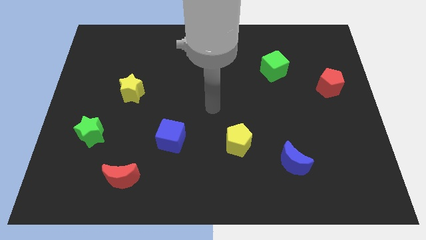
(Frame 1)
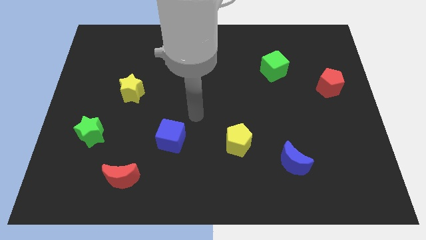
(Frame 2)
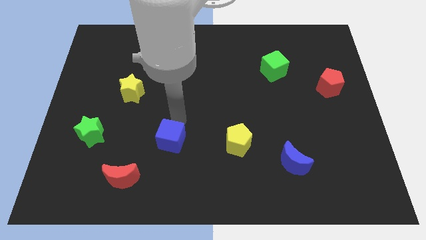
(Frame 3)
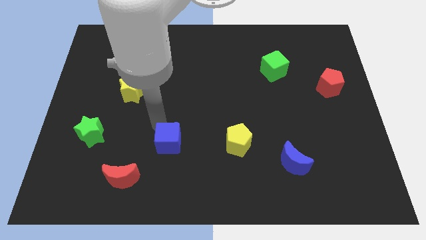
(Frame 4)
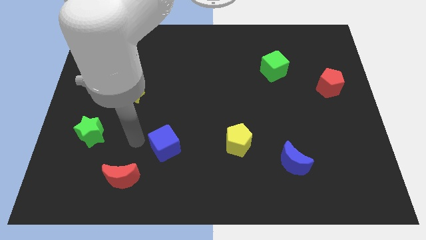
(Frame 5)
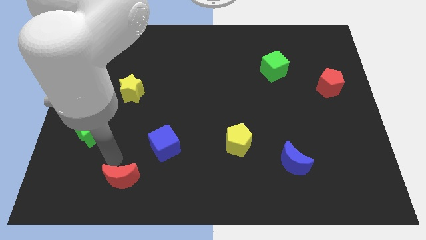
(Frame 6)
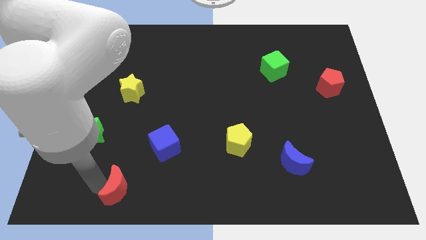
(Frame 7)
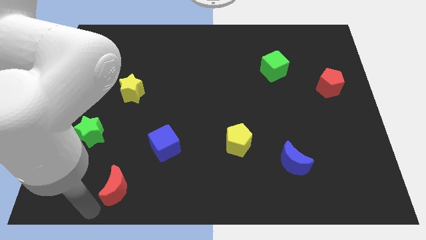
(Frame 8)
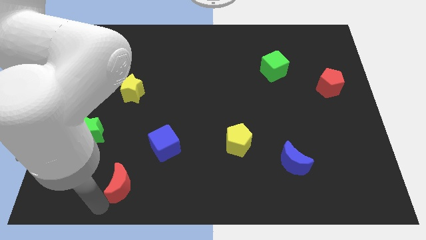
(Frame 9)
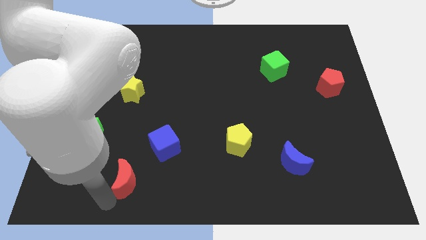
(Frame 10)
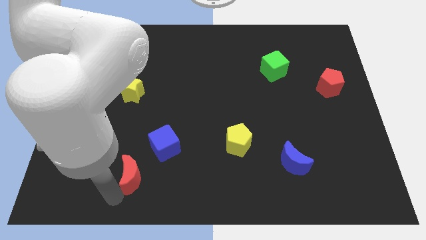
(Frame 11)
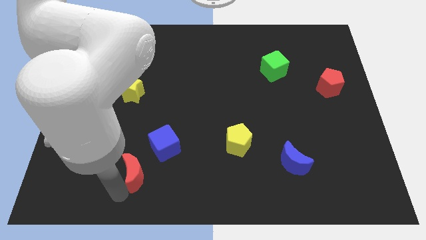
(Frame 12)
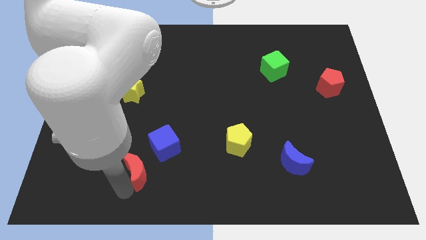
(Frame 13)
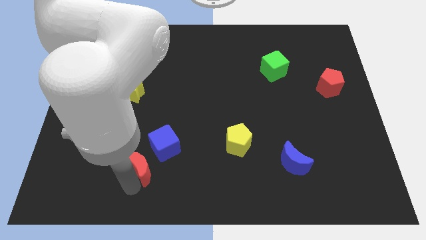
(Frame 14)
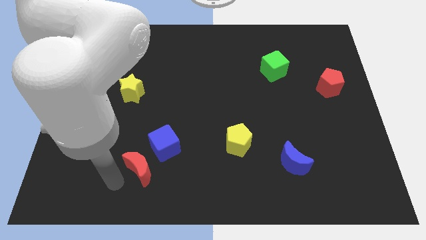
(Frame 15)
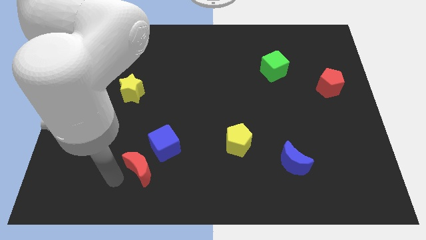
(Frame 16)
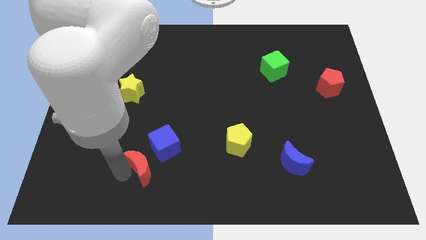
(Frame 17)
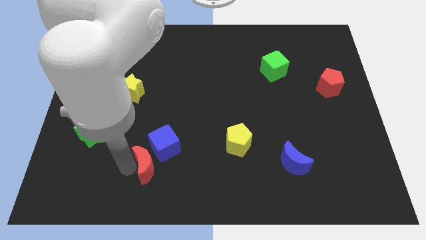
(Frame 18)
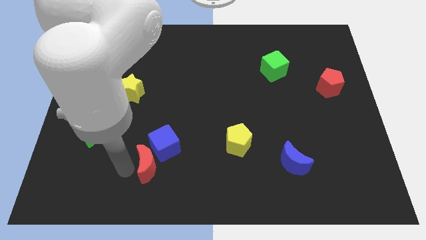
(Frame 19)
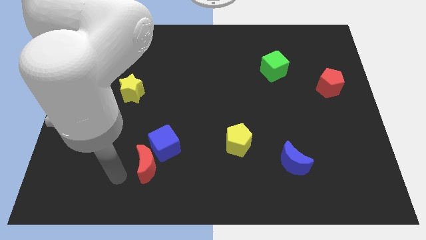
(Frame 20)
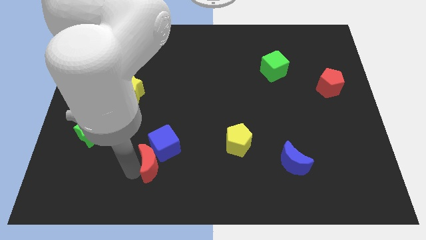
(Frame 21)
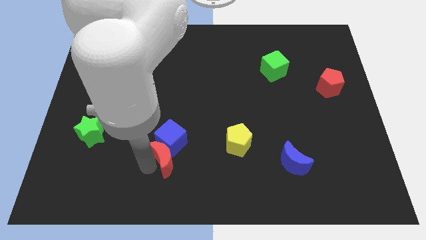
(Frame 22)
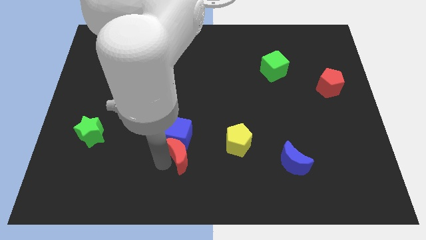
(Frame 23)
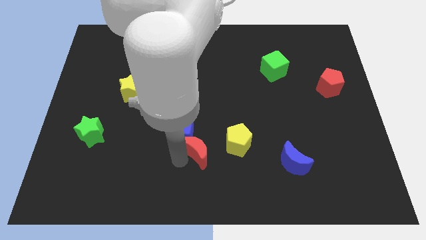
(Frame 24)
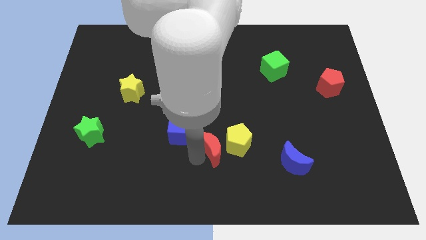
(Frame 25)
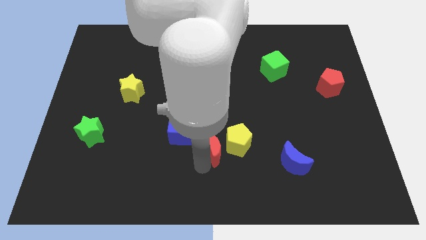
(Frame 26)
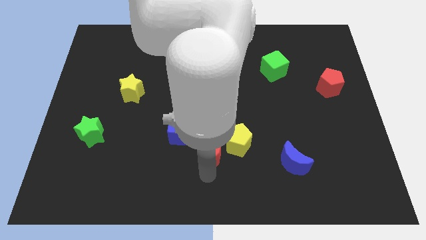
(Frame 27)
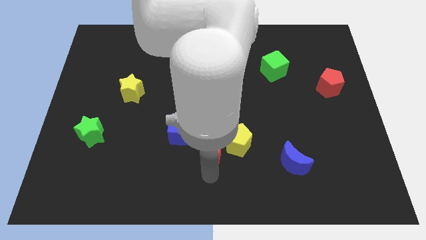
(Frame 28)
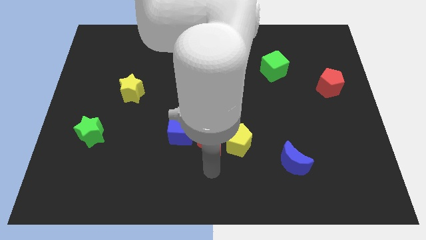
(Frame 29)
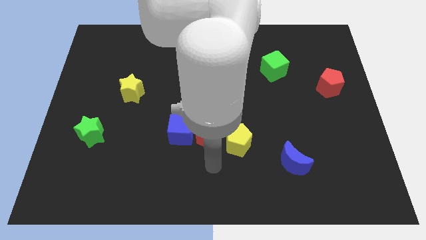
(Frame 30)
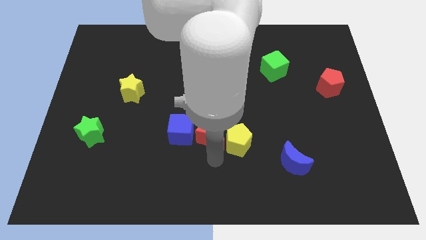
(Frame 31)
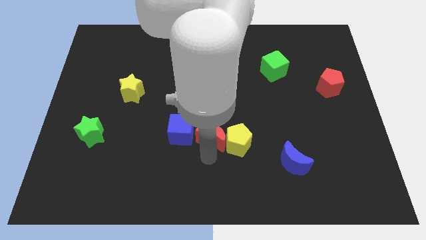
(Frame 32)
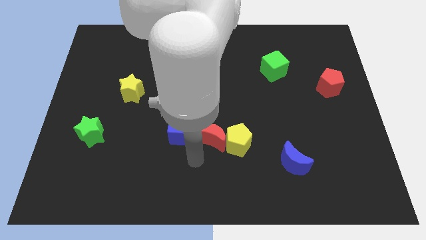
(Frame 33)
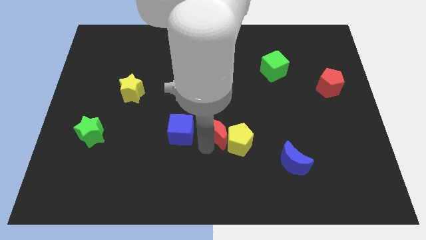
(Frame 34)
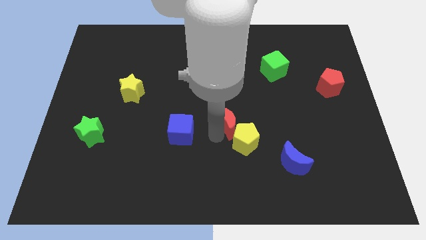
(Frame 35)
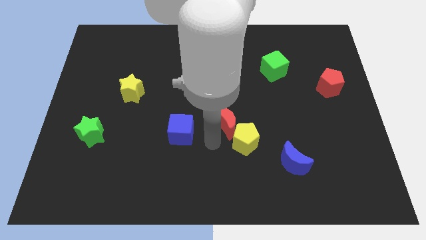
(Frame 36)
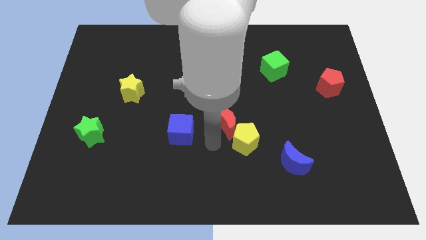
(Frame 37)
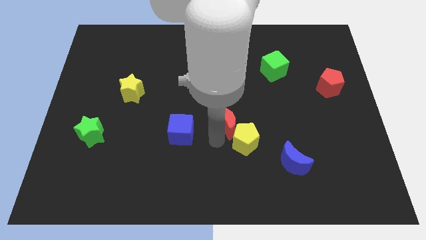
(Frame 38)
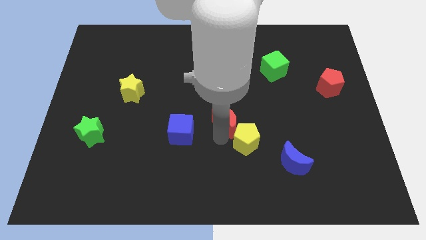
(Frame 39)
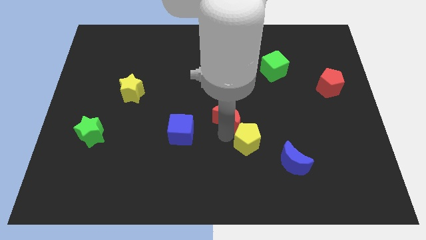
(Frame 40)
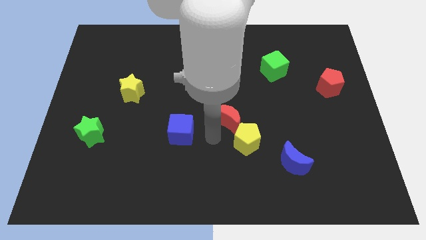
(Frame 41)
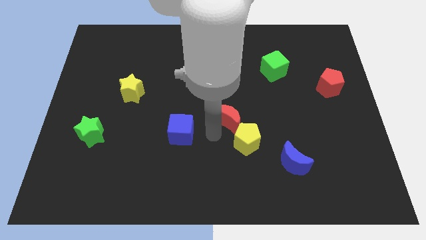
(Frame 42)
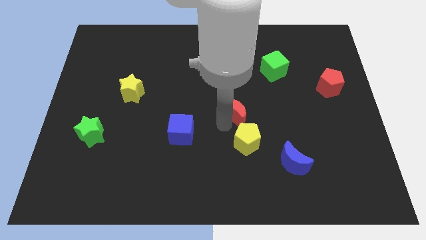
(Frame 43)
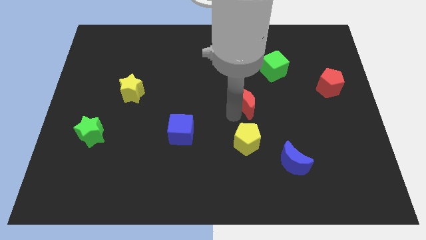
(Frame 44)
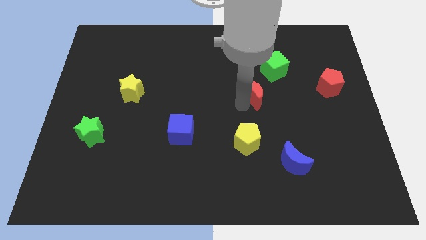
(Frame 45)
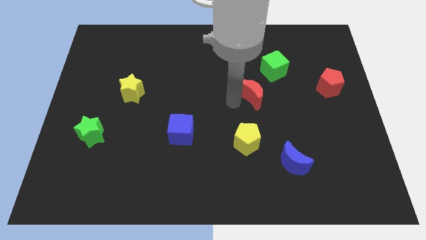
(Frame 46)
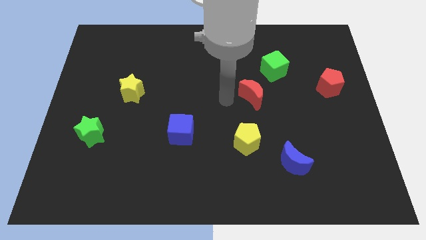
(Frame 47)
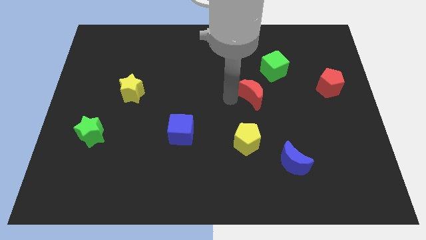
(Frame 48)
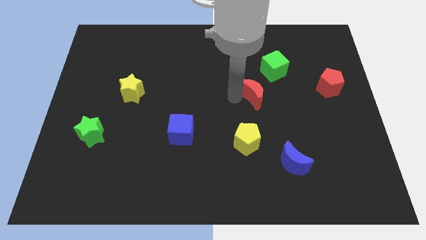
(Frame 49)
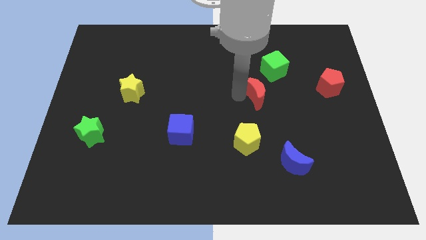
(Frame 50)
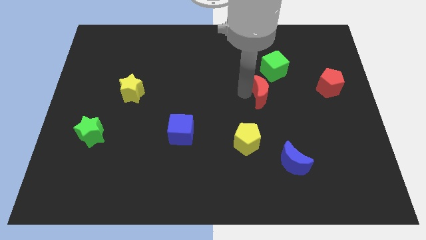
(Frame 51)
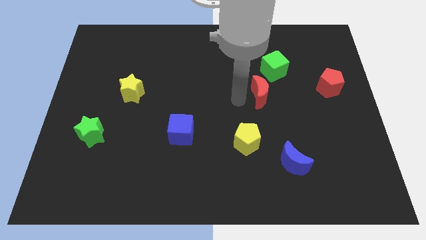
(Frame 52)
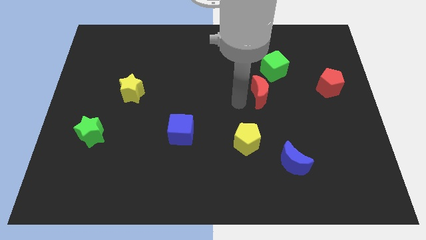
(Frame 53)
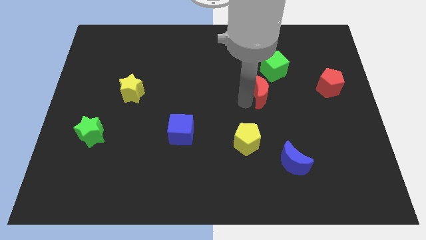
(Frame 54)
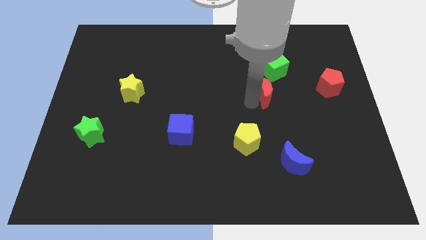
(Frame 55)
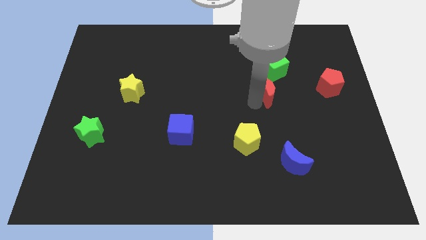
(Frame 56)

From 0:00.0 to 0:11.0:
slide the red moon left of the red pentagon

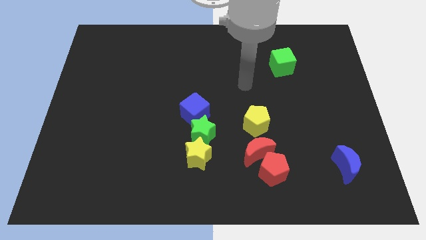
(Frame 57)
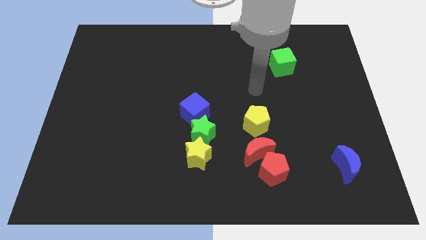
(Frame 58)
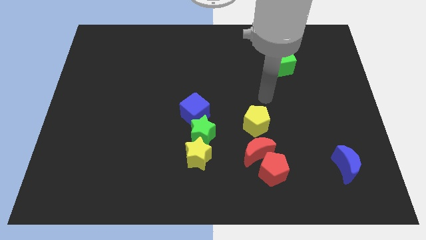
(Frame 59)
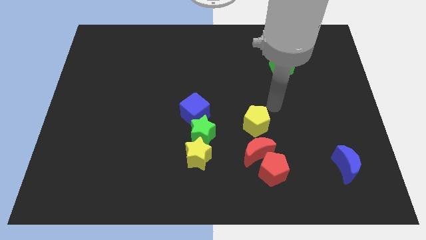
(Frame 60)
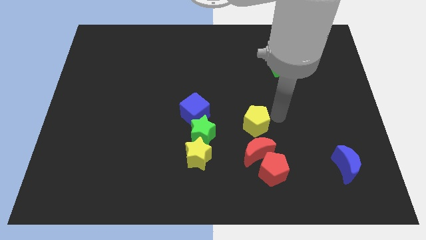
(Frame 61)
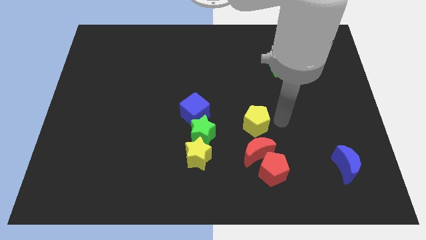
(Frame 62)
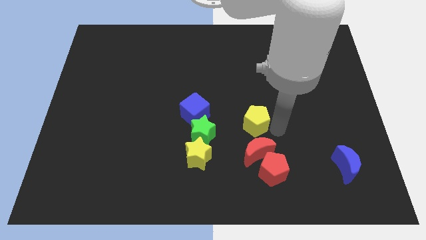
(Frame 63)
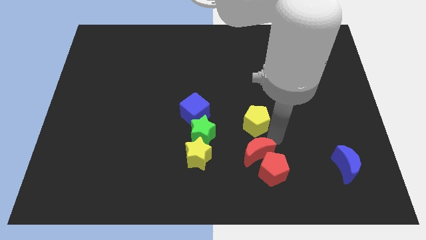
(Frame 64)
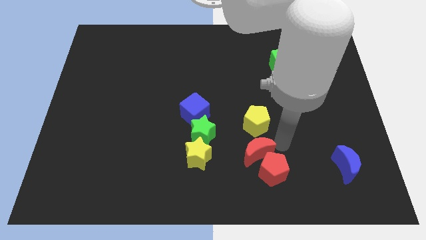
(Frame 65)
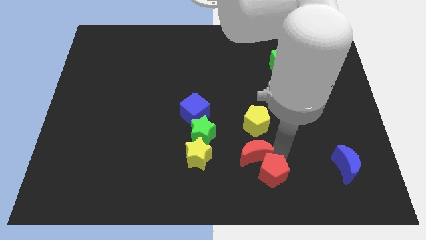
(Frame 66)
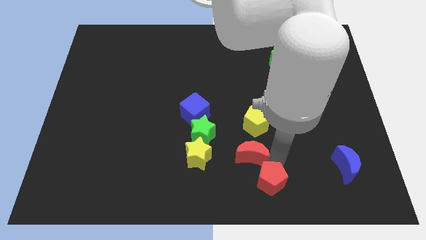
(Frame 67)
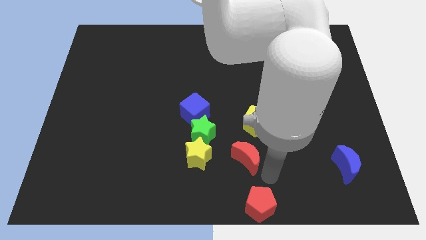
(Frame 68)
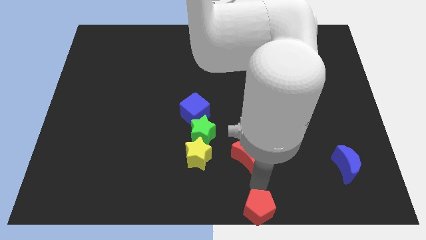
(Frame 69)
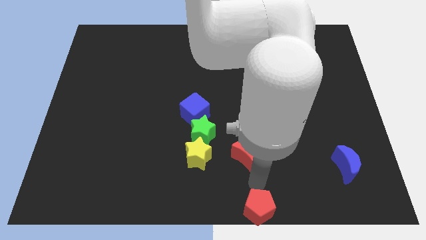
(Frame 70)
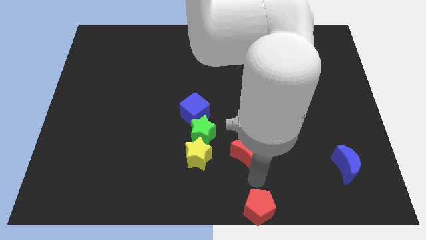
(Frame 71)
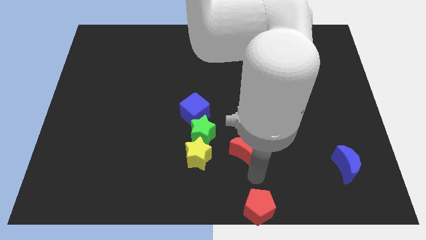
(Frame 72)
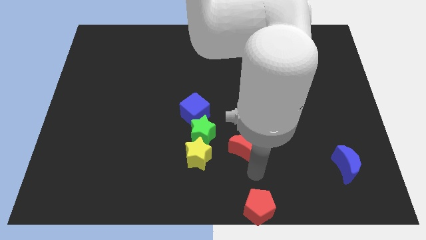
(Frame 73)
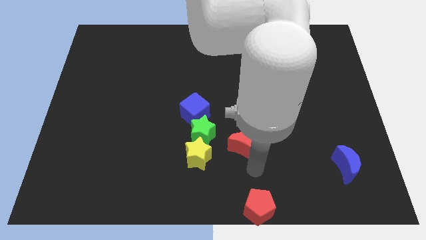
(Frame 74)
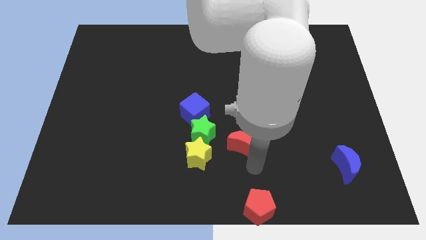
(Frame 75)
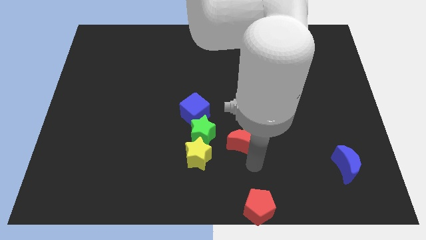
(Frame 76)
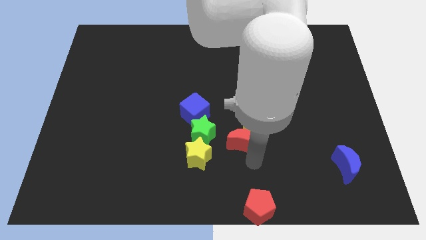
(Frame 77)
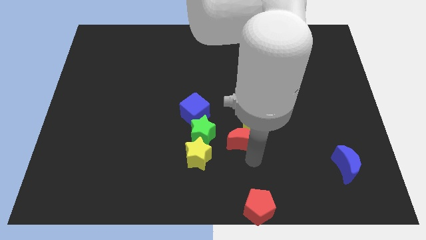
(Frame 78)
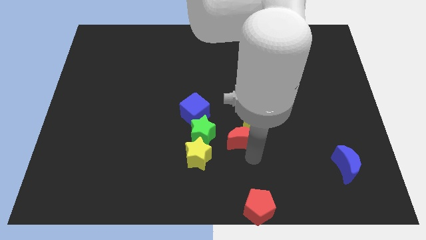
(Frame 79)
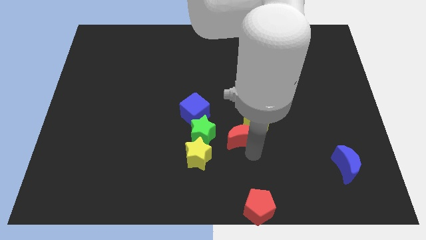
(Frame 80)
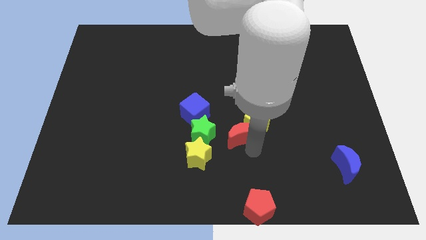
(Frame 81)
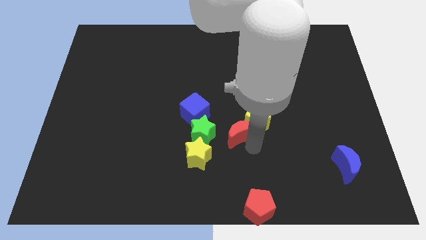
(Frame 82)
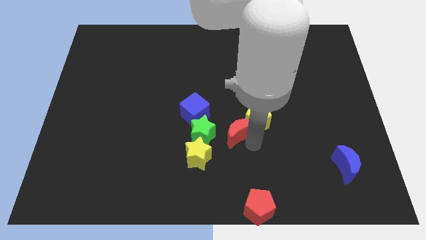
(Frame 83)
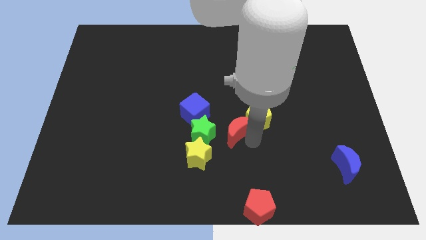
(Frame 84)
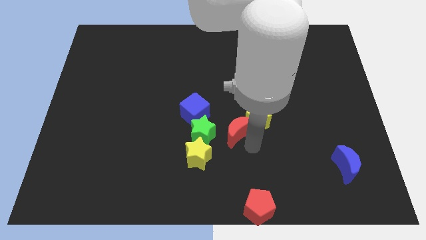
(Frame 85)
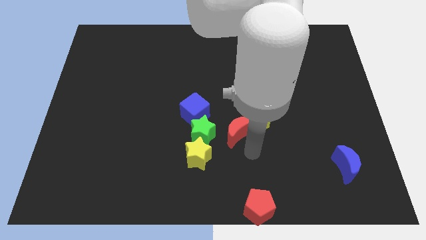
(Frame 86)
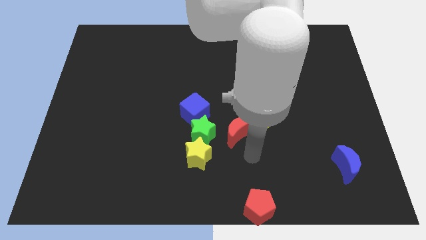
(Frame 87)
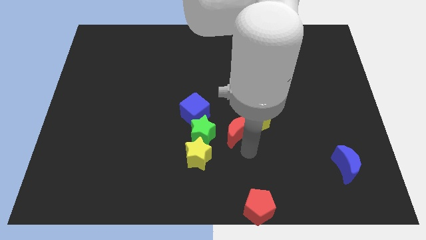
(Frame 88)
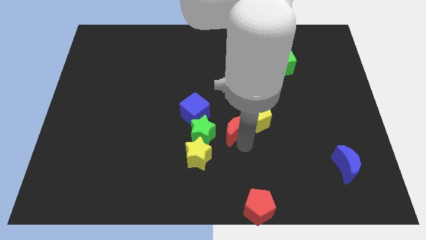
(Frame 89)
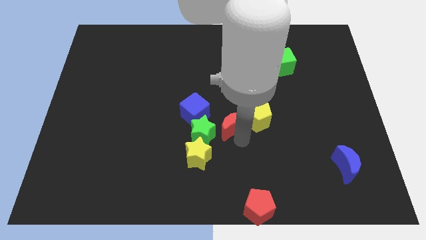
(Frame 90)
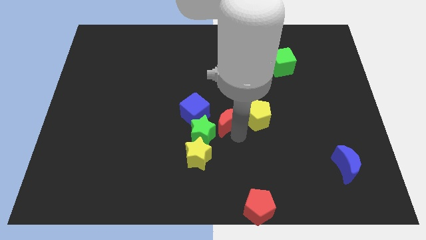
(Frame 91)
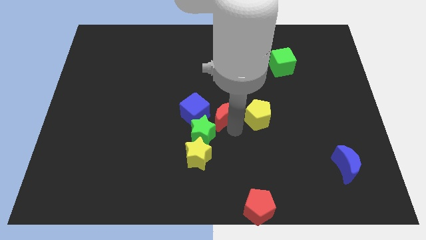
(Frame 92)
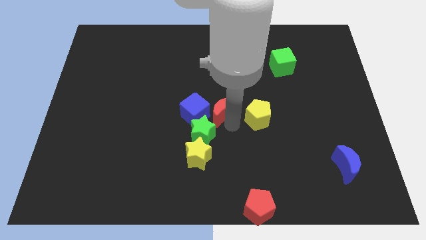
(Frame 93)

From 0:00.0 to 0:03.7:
push the red moon above the green star
